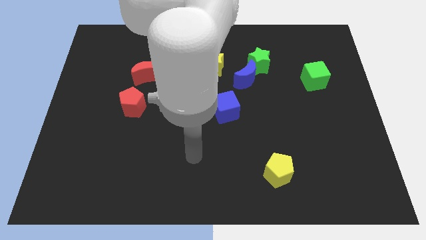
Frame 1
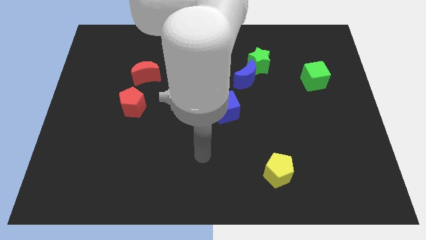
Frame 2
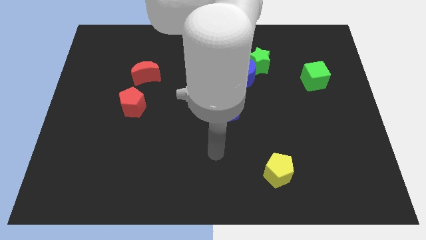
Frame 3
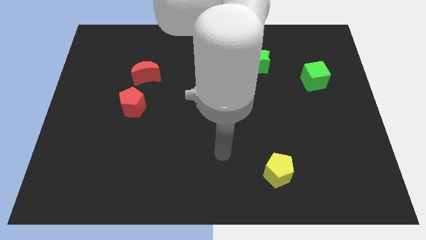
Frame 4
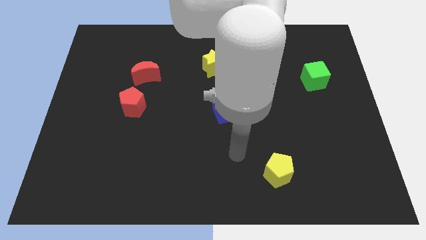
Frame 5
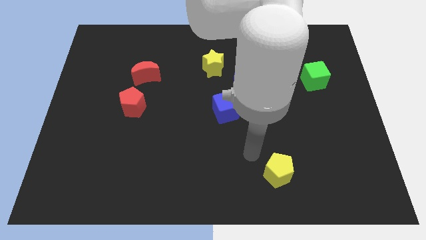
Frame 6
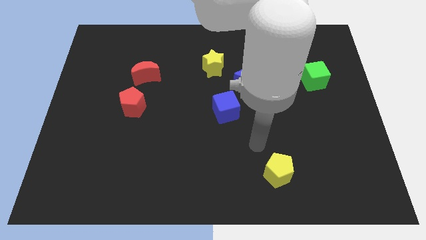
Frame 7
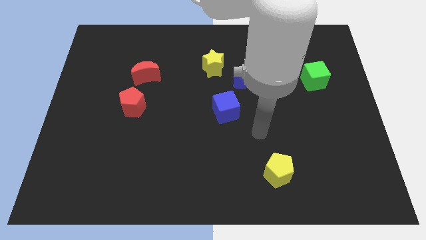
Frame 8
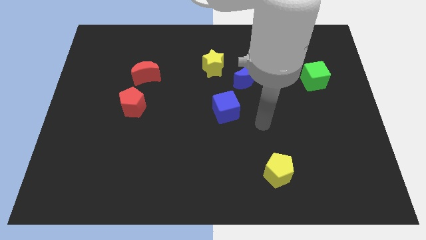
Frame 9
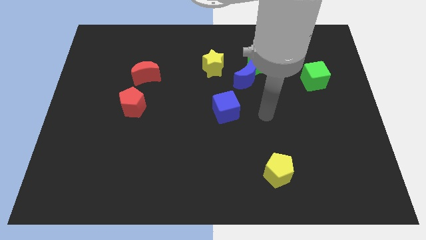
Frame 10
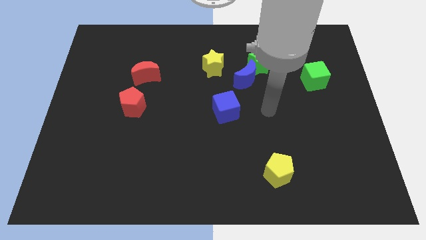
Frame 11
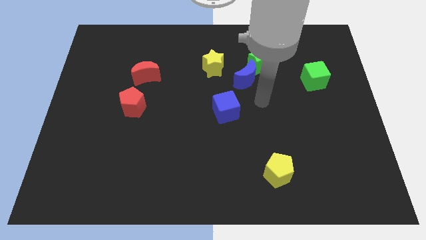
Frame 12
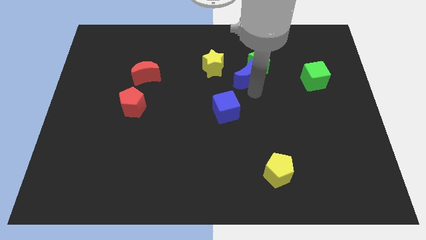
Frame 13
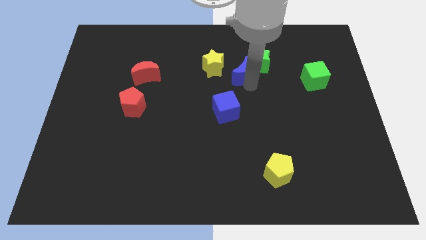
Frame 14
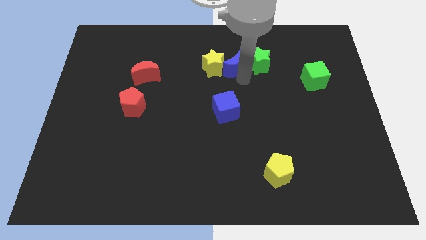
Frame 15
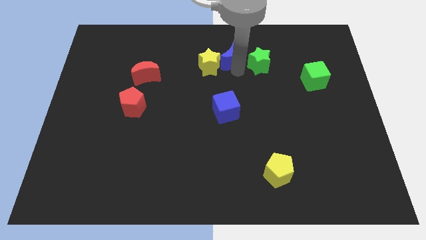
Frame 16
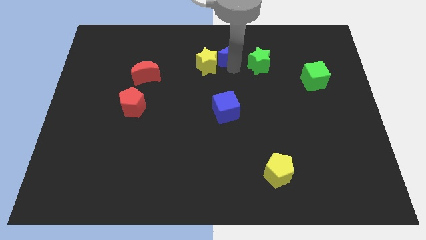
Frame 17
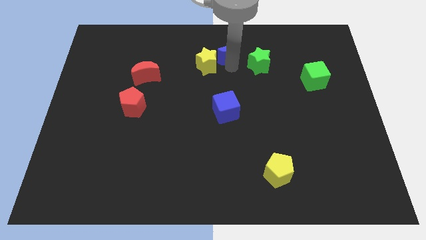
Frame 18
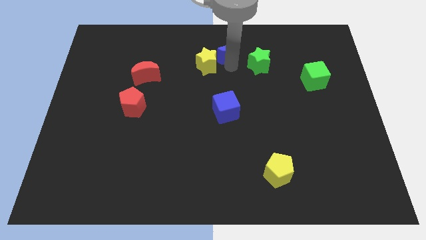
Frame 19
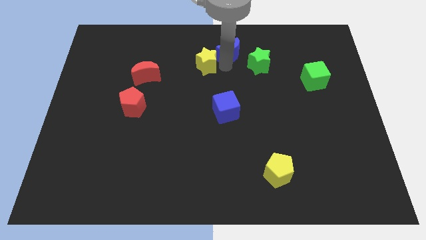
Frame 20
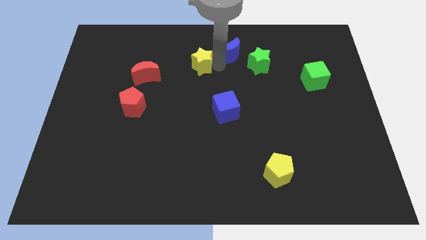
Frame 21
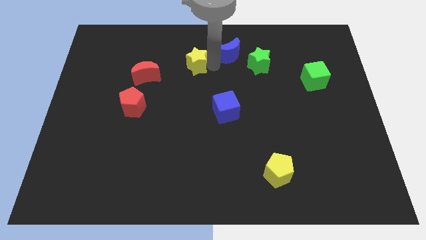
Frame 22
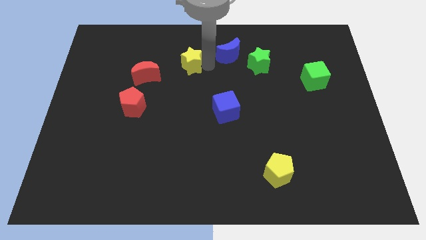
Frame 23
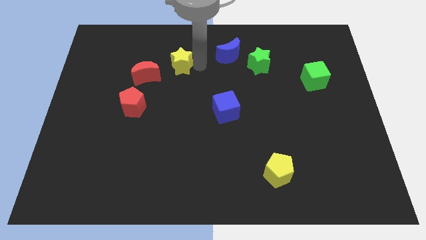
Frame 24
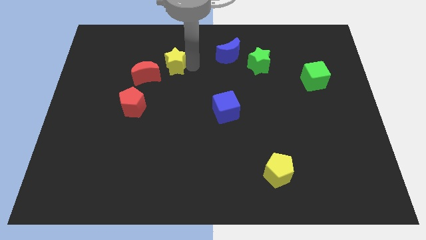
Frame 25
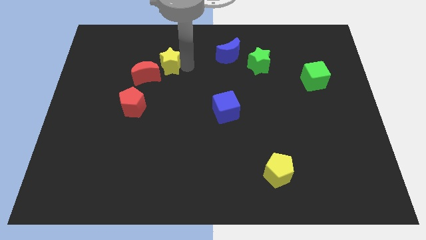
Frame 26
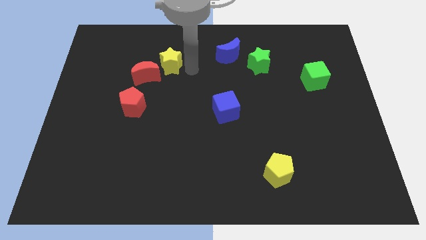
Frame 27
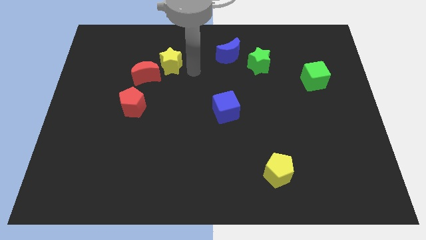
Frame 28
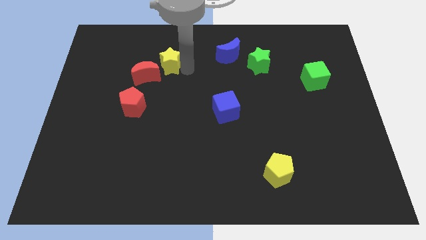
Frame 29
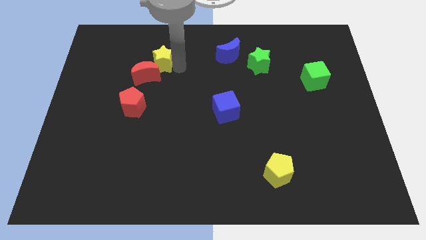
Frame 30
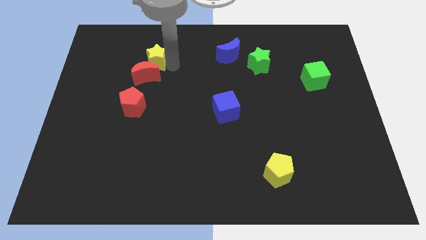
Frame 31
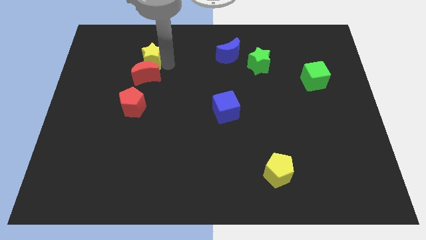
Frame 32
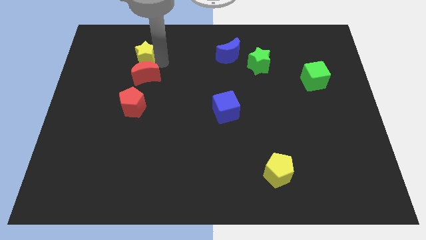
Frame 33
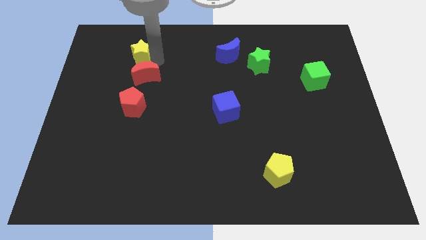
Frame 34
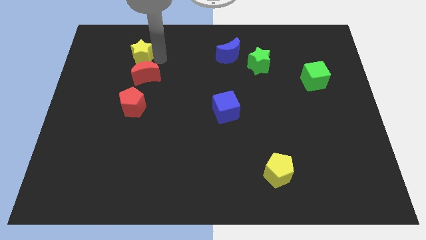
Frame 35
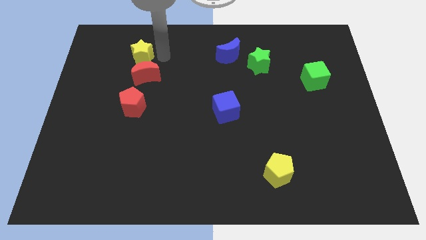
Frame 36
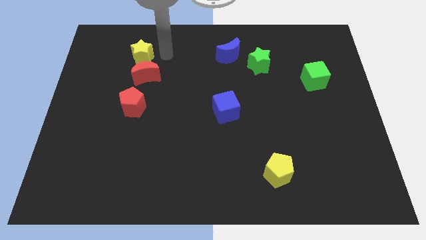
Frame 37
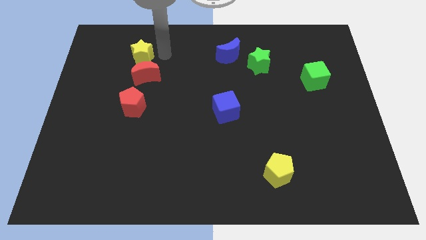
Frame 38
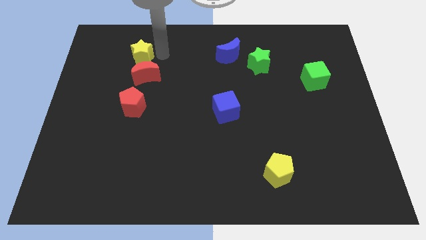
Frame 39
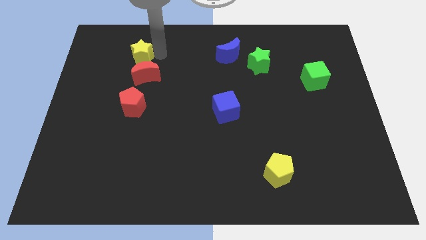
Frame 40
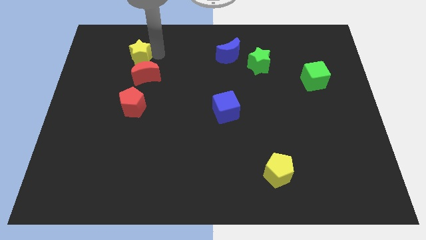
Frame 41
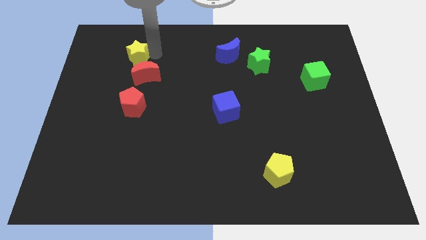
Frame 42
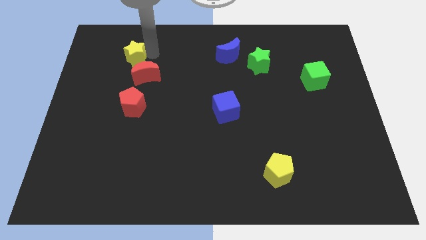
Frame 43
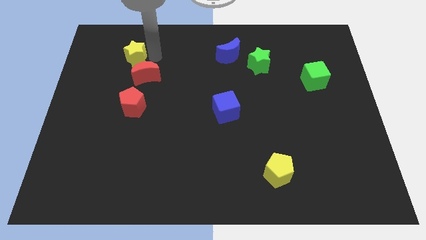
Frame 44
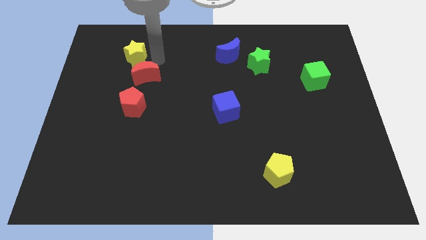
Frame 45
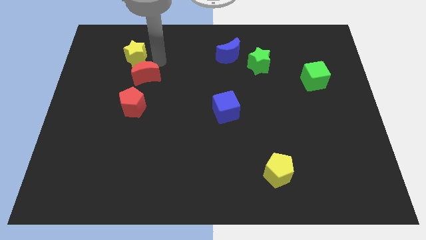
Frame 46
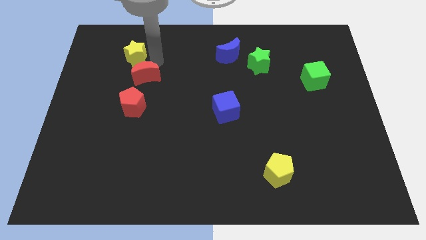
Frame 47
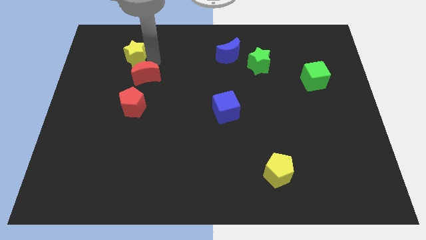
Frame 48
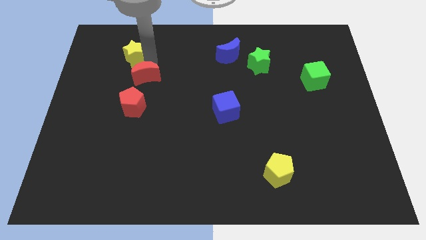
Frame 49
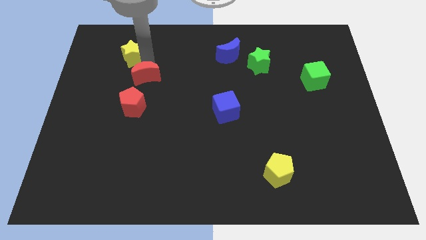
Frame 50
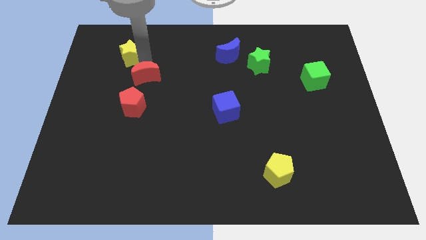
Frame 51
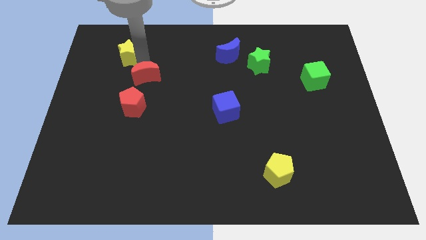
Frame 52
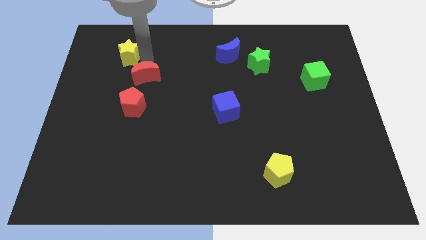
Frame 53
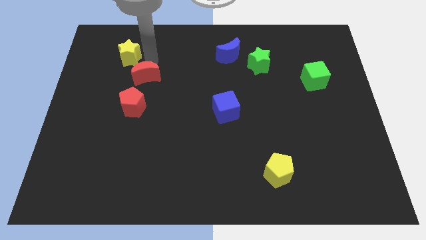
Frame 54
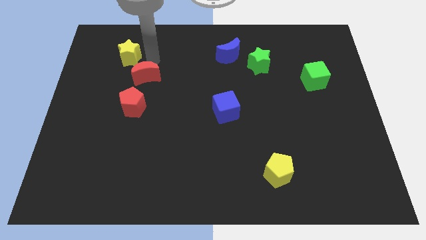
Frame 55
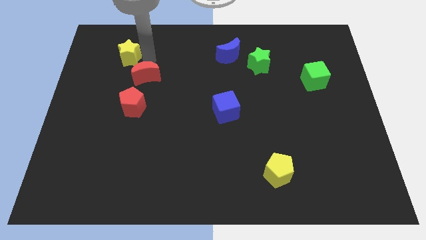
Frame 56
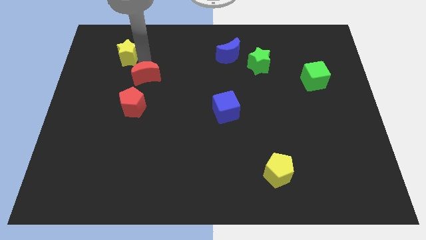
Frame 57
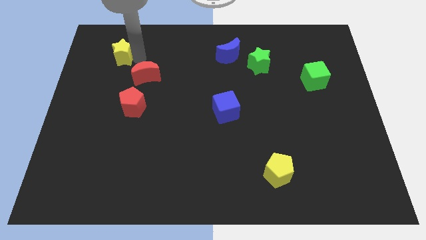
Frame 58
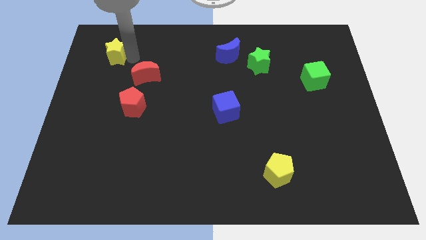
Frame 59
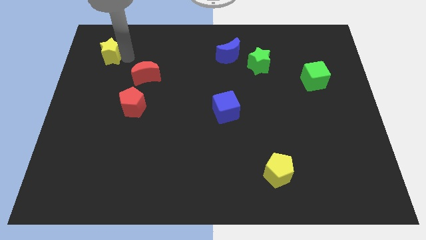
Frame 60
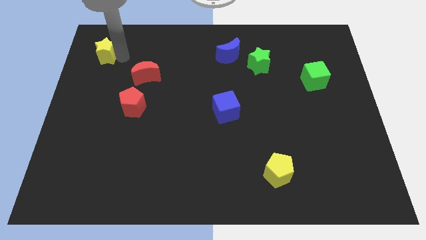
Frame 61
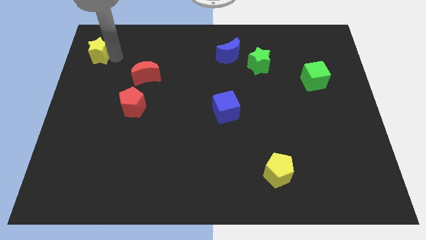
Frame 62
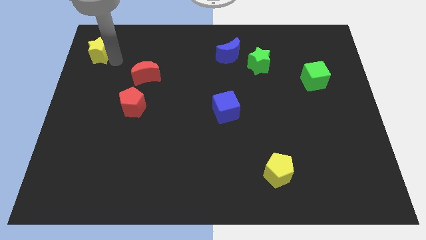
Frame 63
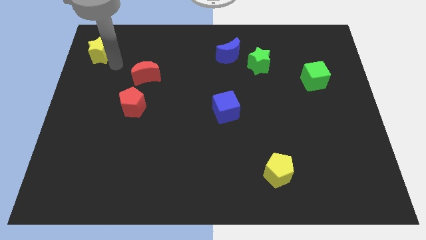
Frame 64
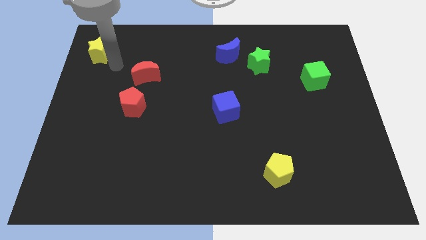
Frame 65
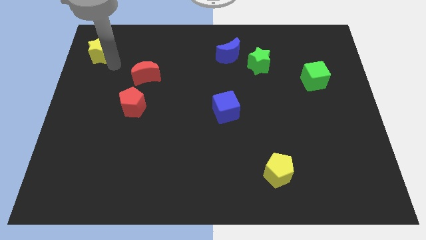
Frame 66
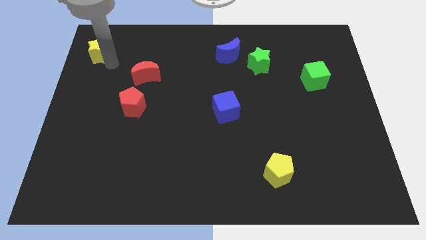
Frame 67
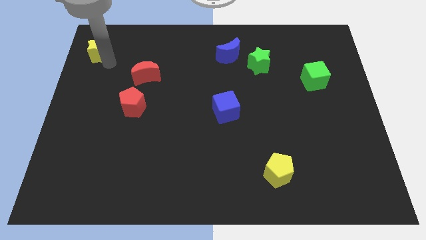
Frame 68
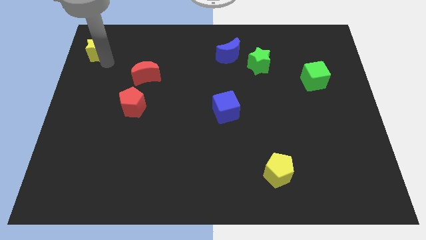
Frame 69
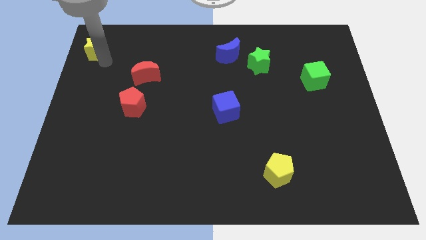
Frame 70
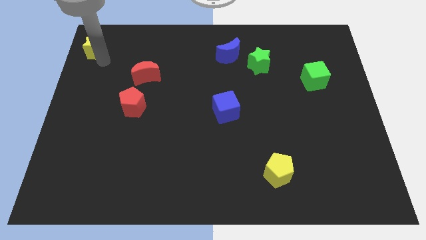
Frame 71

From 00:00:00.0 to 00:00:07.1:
push the yellow star to the upper left corner
